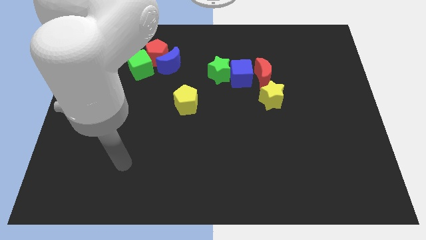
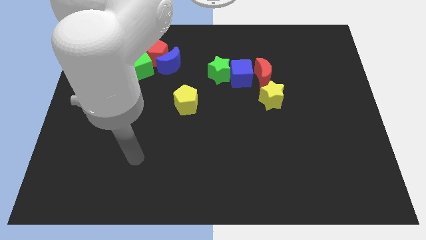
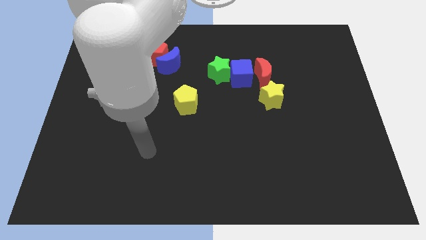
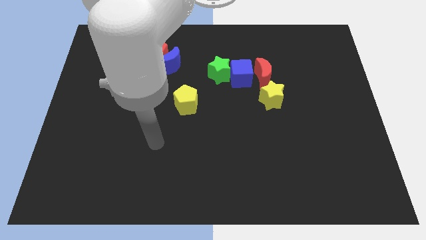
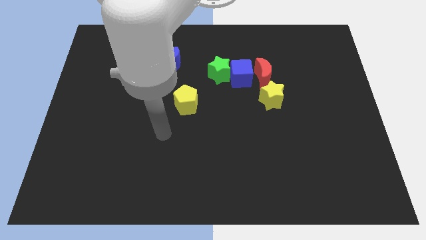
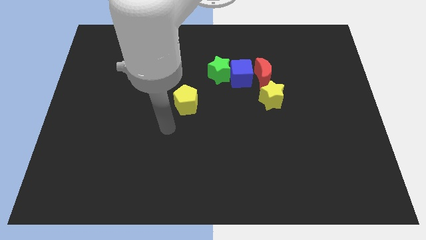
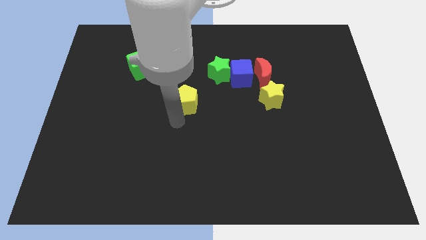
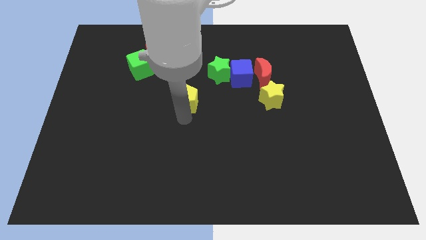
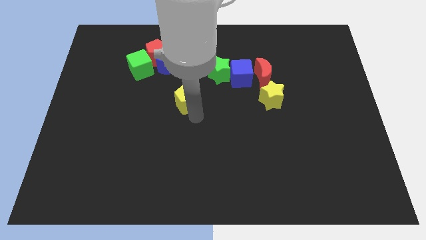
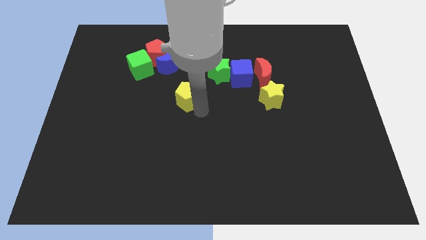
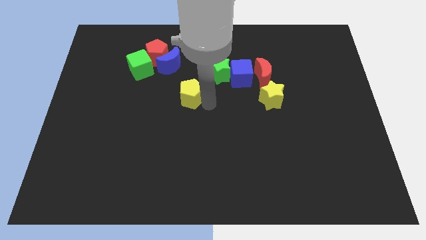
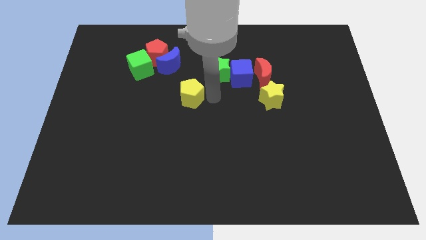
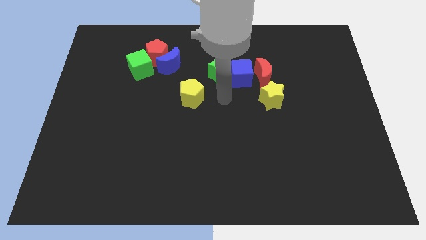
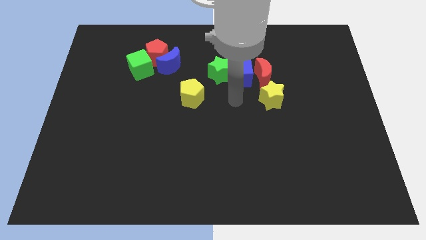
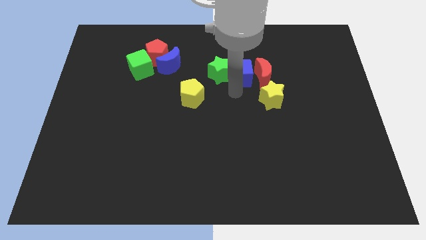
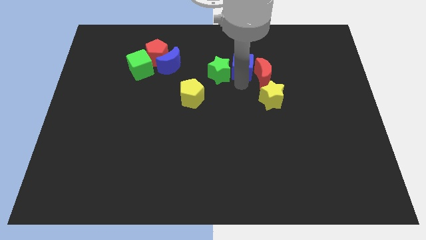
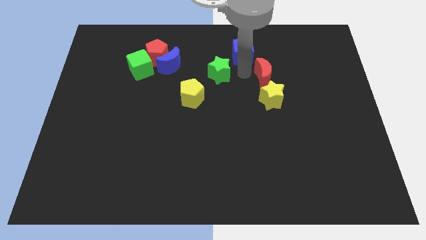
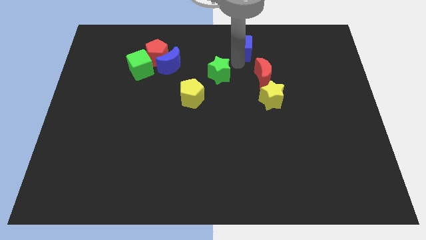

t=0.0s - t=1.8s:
separate the green star from the blue cube

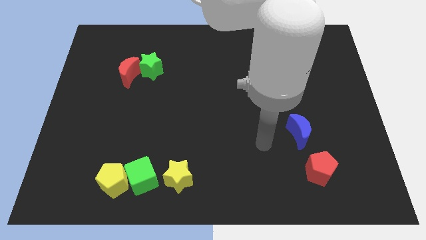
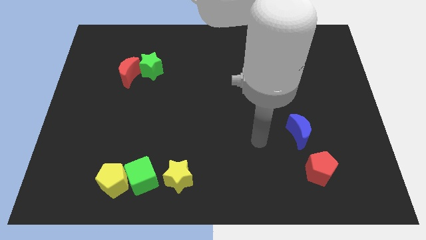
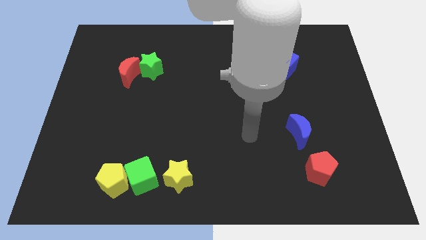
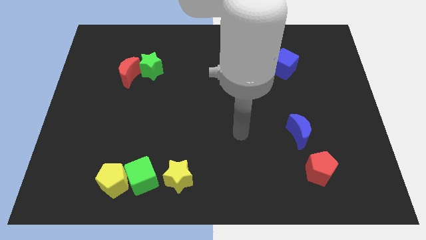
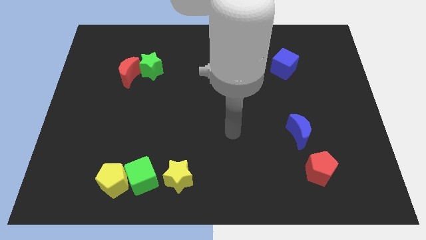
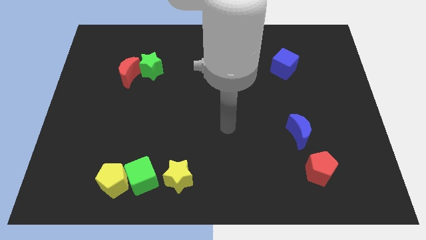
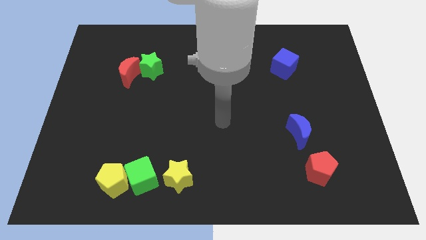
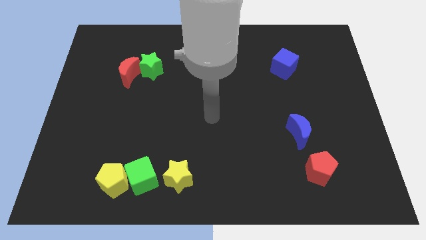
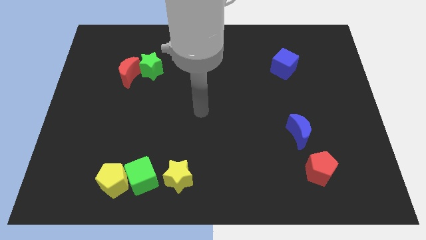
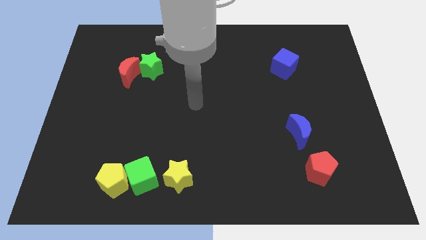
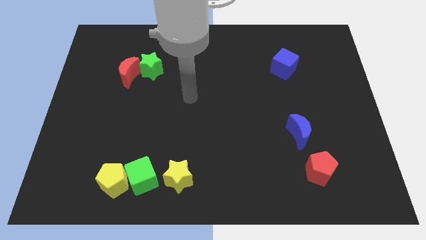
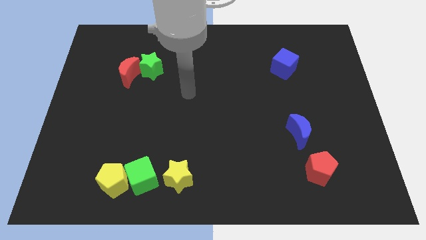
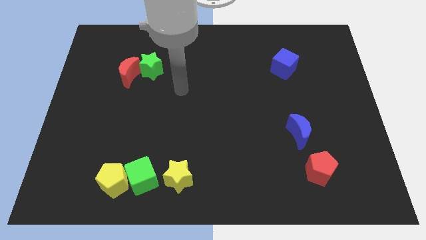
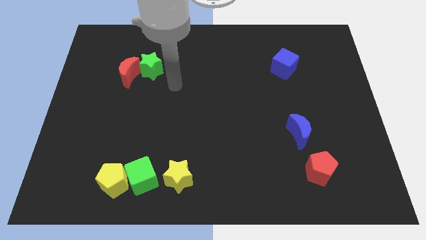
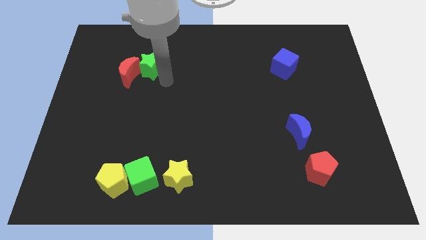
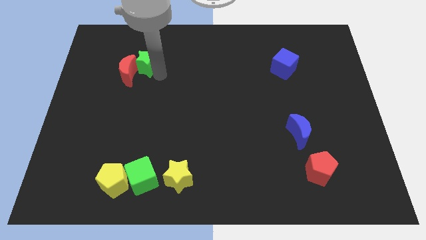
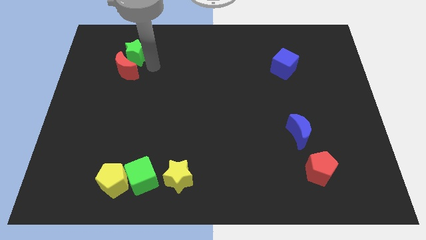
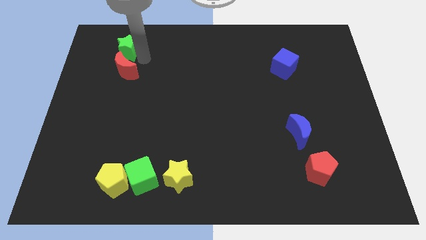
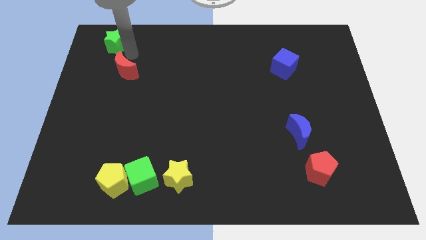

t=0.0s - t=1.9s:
move the red moon away from the green star

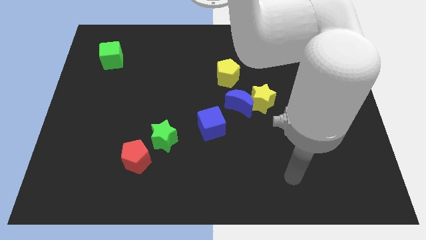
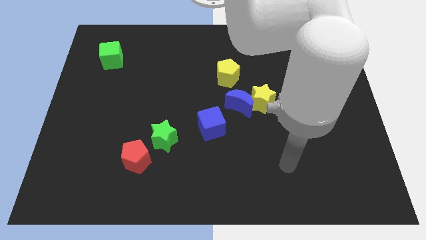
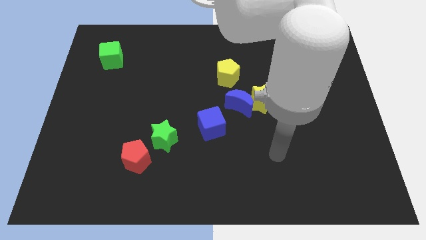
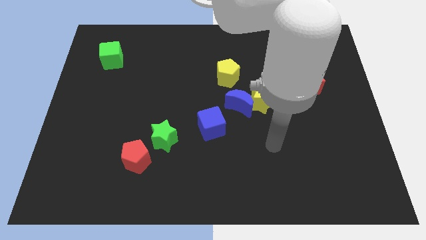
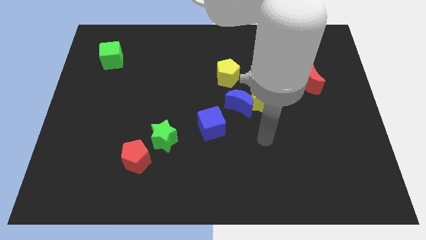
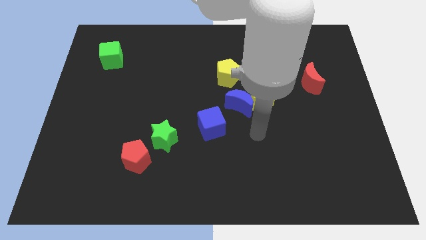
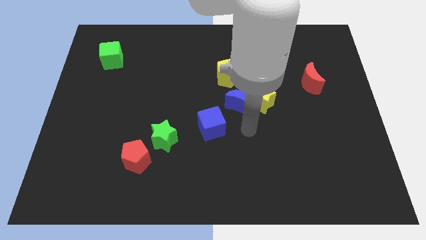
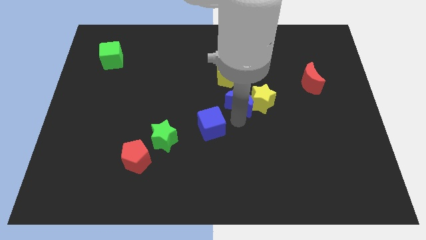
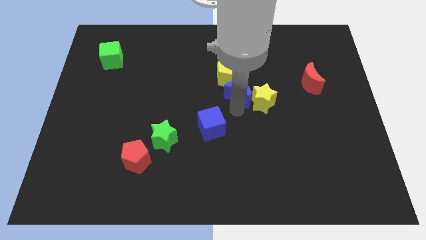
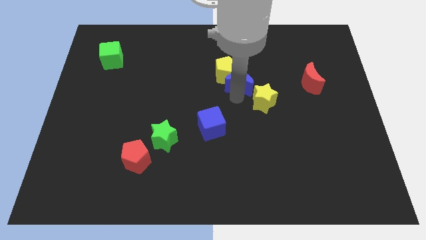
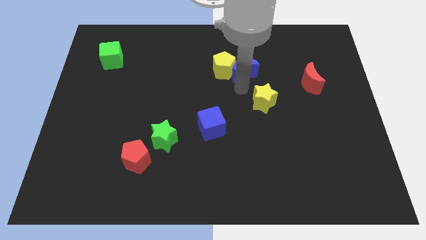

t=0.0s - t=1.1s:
move the yellow star away from the blue moon

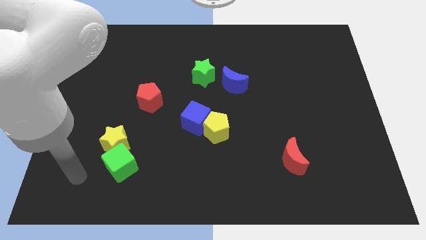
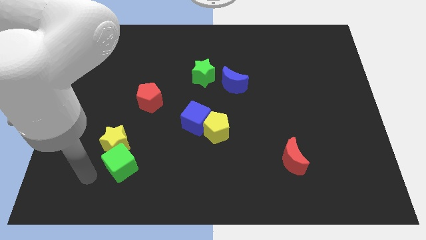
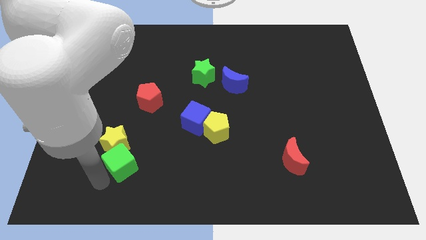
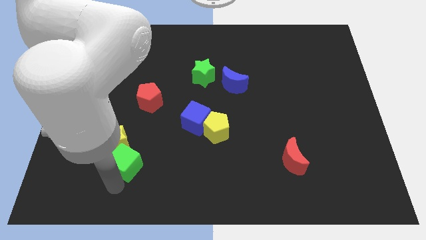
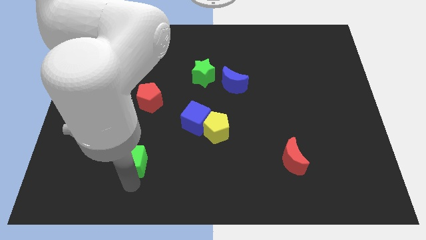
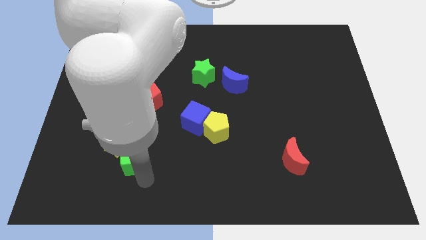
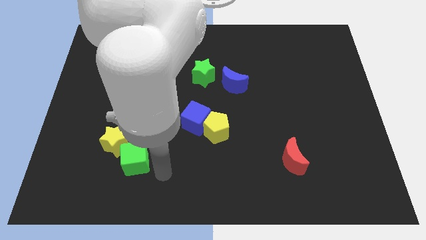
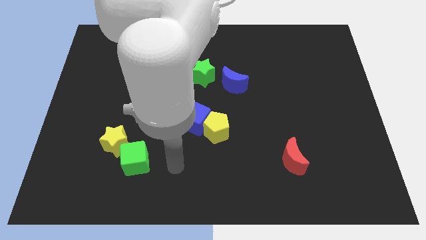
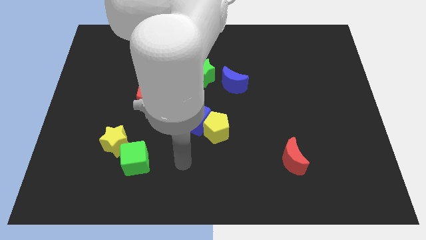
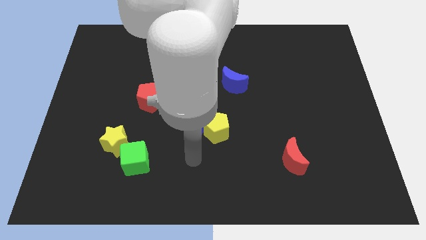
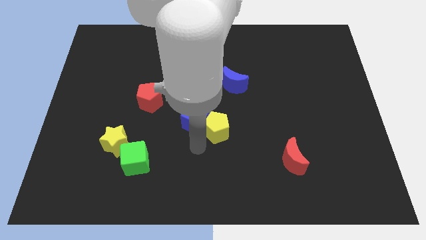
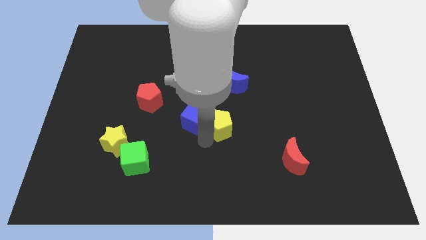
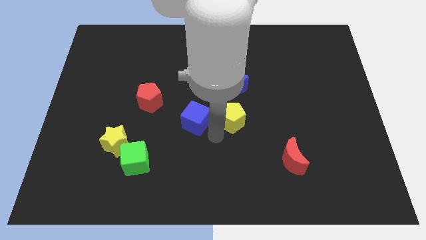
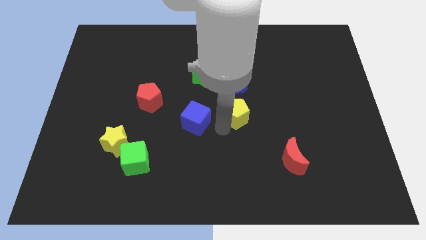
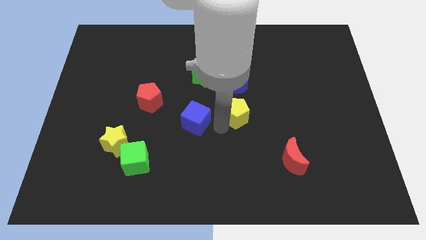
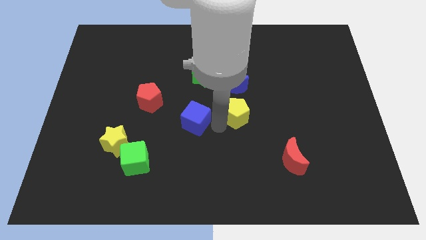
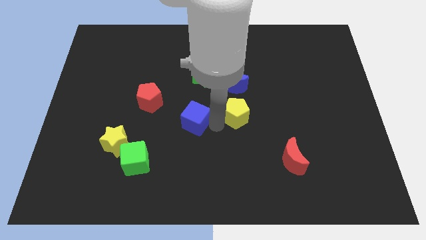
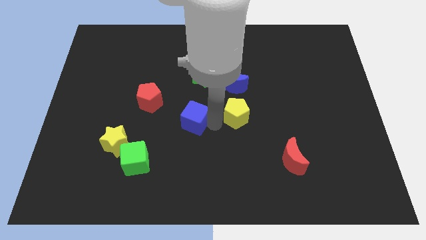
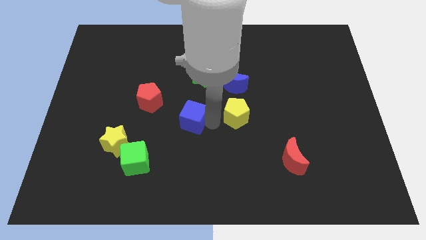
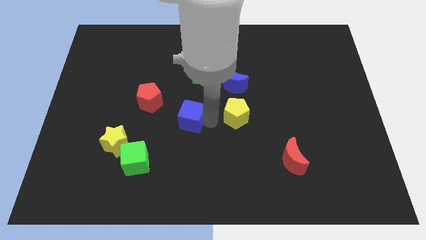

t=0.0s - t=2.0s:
move the blue cube away from the yellow pentagon

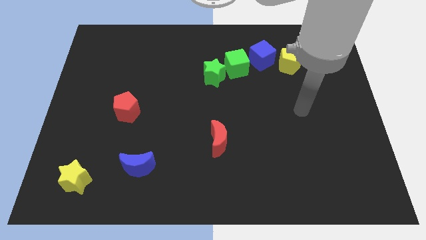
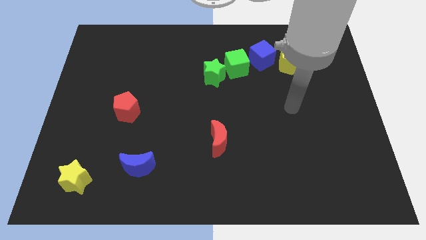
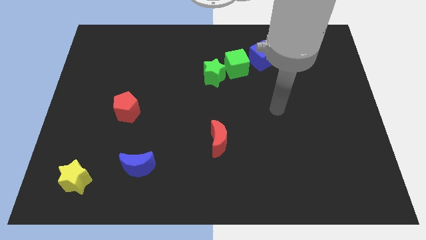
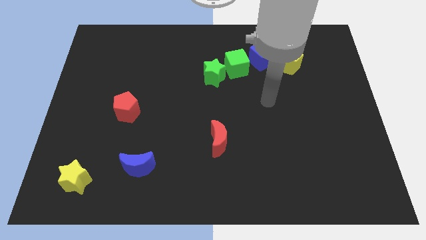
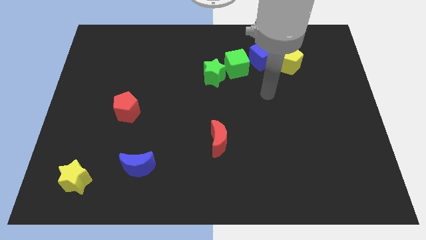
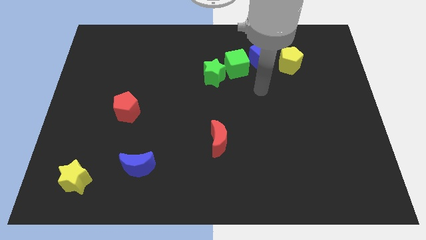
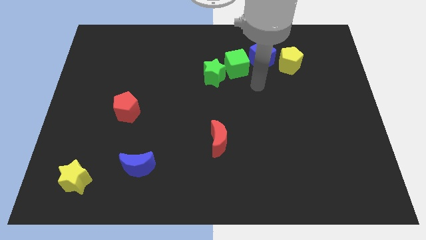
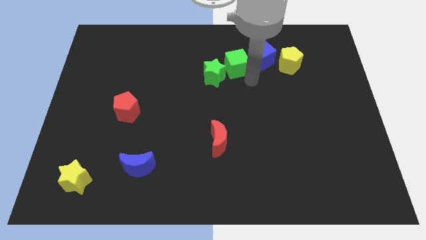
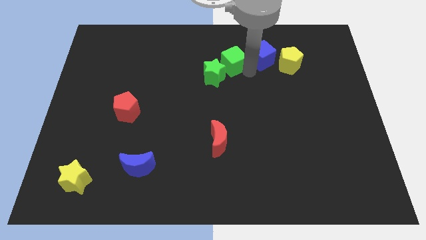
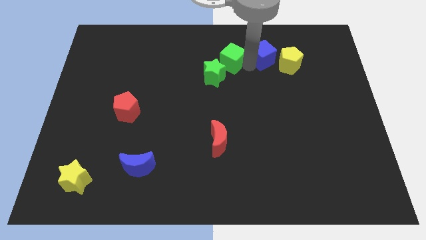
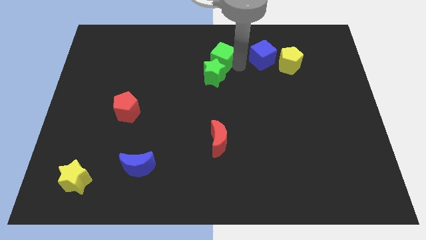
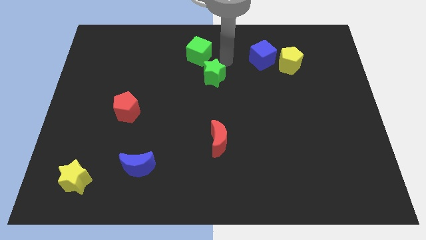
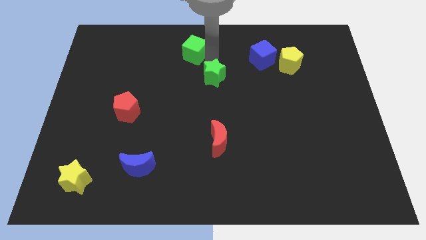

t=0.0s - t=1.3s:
separate the green star from the green cube

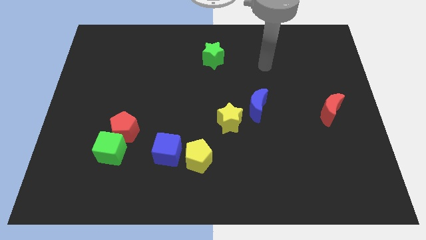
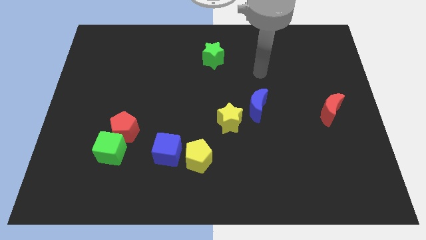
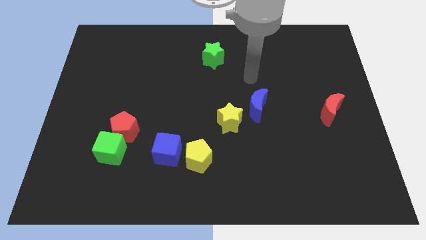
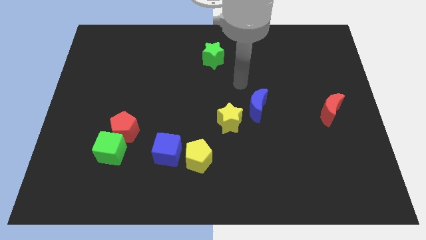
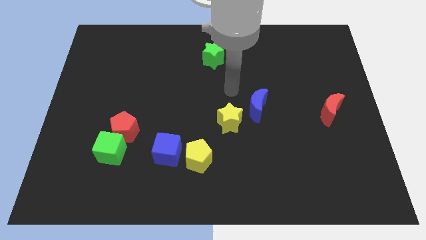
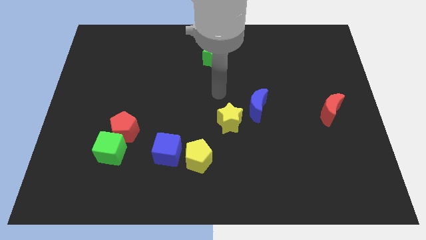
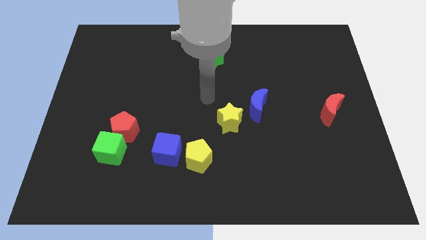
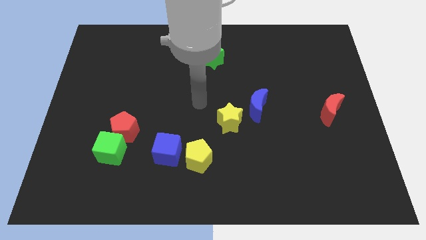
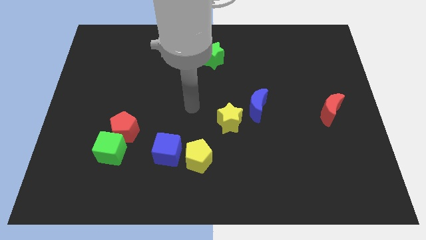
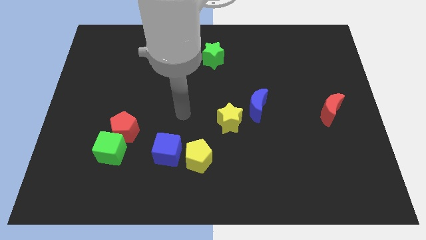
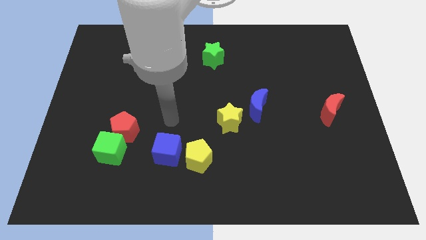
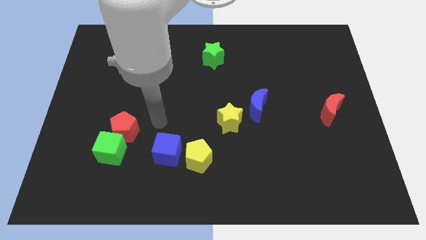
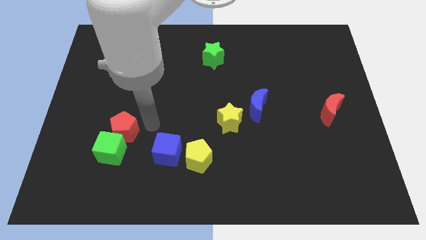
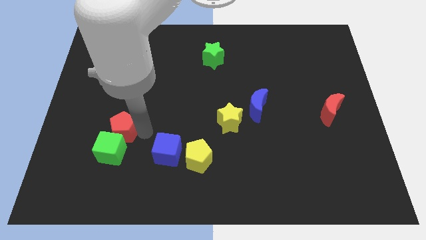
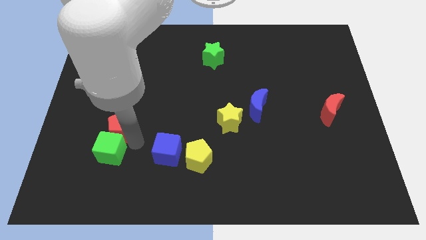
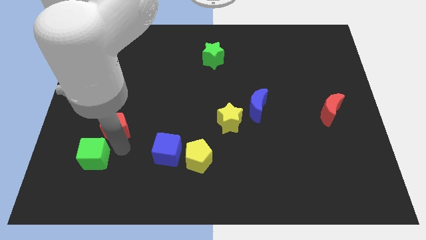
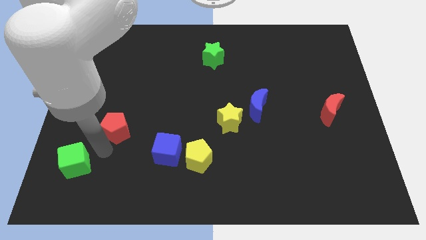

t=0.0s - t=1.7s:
move the red pentagon away from the green cube
